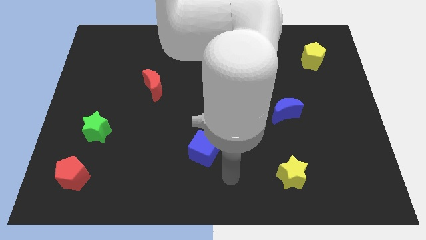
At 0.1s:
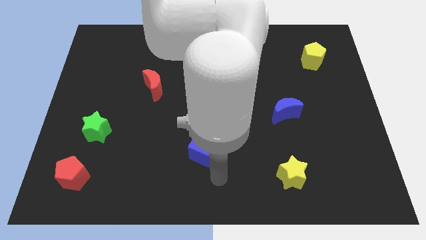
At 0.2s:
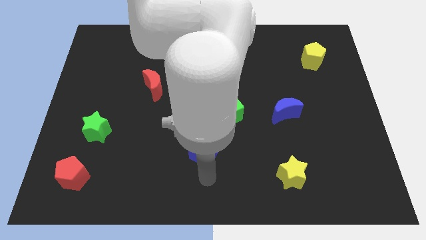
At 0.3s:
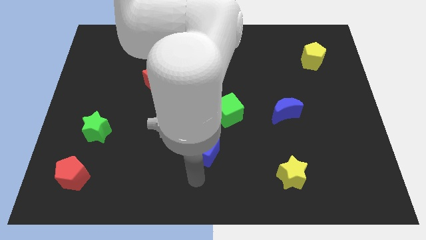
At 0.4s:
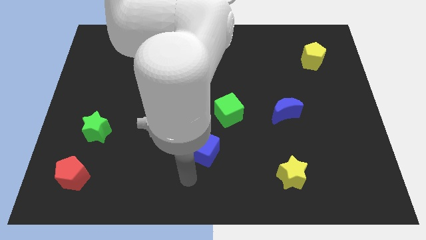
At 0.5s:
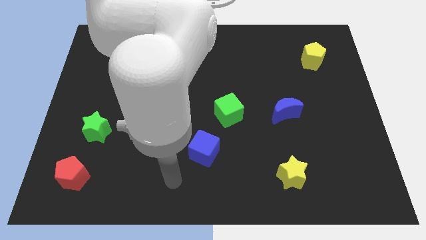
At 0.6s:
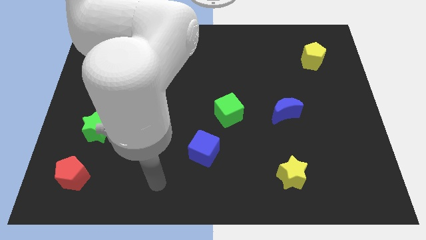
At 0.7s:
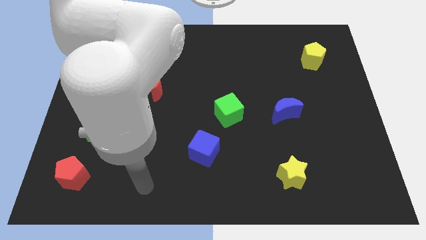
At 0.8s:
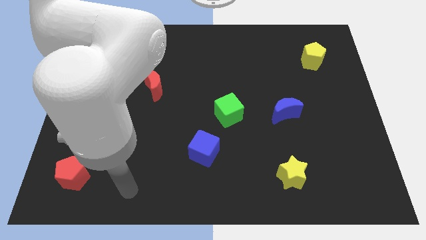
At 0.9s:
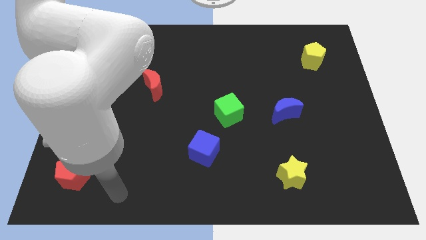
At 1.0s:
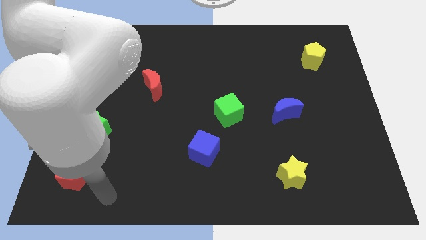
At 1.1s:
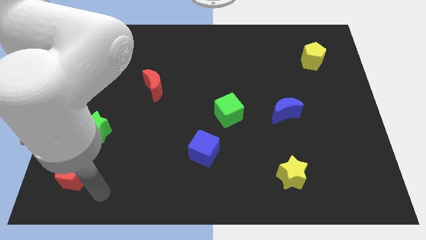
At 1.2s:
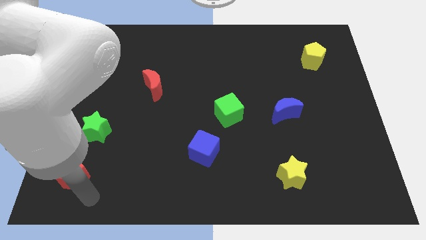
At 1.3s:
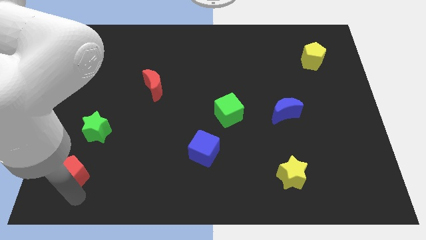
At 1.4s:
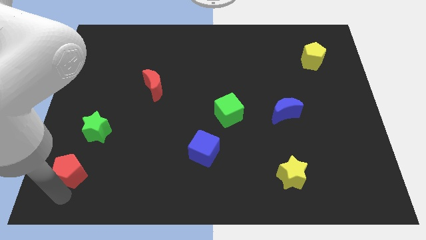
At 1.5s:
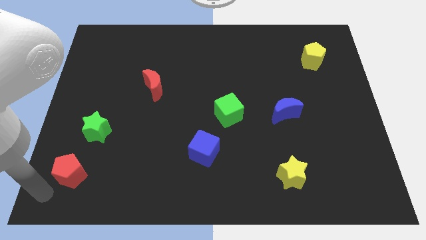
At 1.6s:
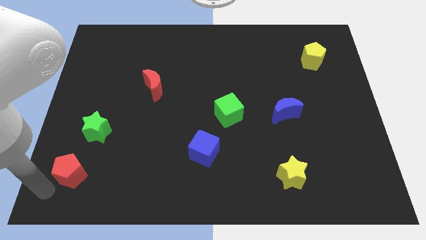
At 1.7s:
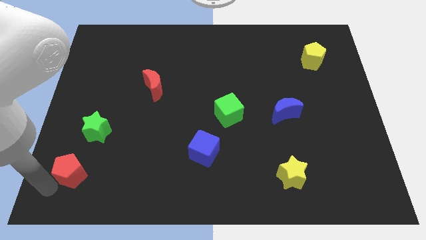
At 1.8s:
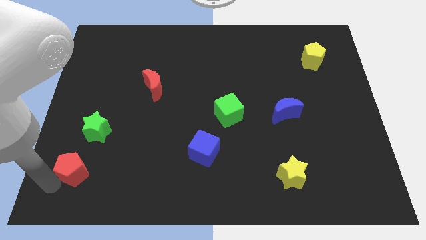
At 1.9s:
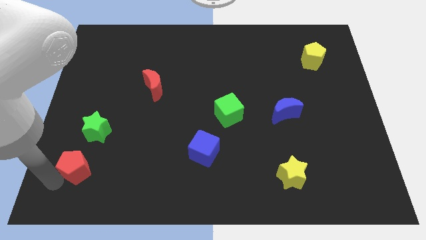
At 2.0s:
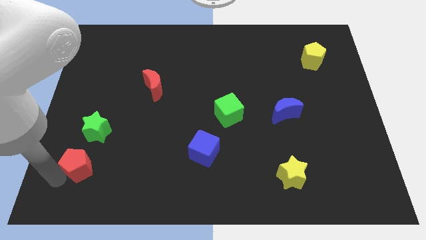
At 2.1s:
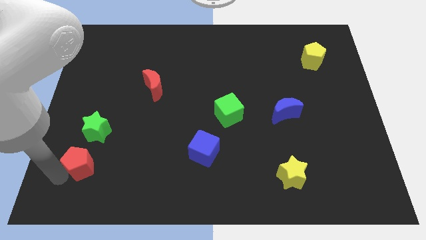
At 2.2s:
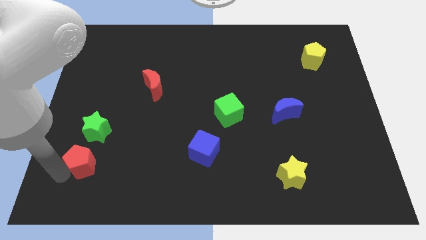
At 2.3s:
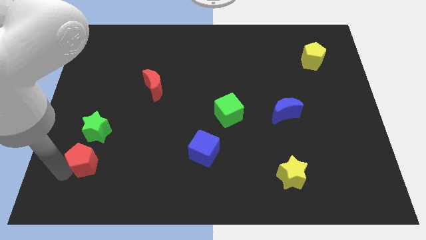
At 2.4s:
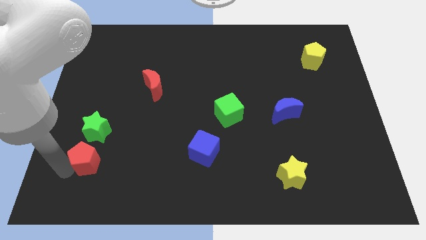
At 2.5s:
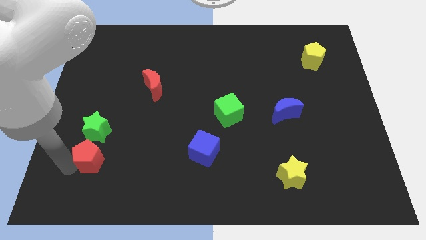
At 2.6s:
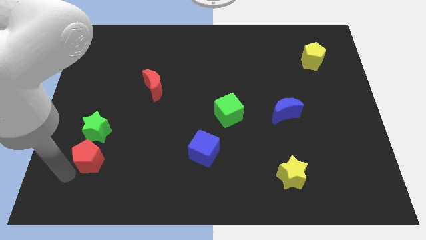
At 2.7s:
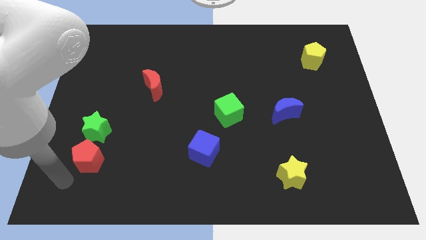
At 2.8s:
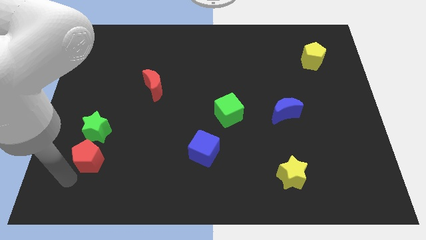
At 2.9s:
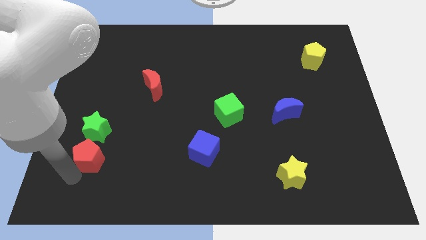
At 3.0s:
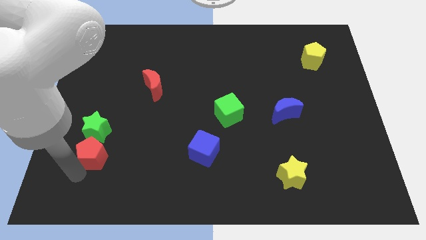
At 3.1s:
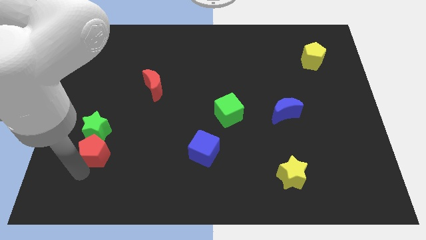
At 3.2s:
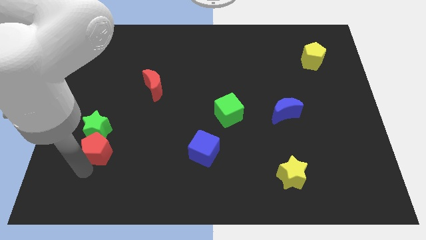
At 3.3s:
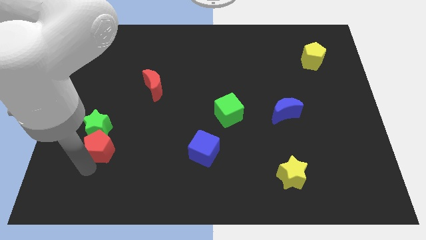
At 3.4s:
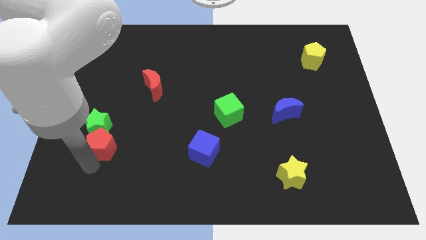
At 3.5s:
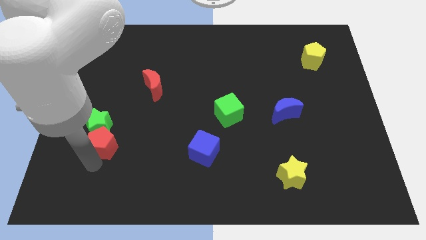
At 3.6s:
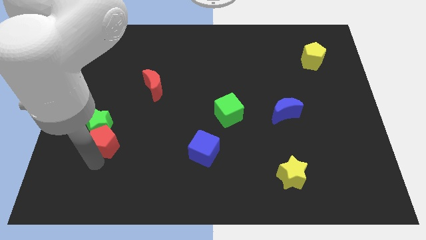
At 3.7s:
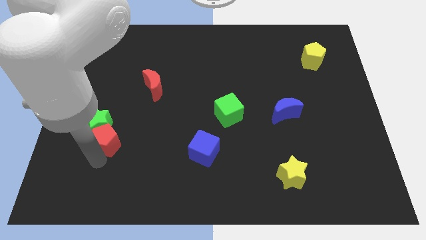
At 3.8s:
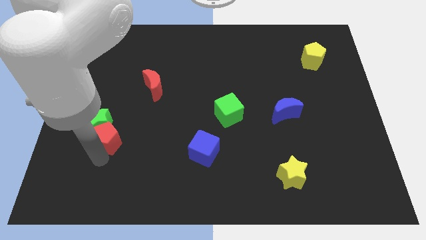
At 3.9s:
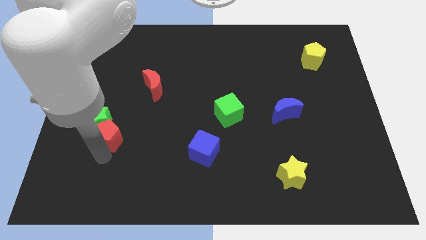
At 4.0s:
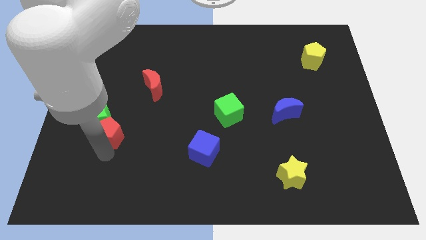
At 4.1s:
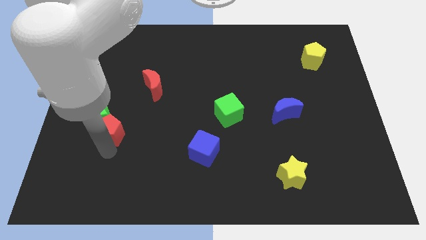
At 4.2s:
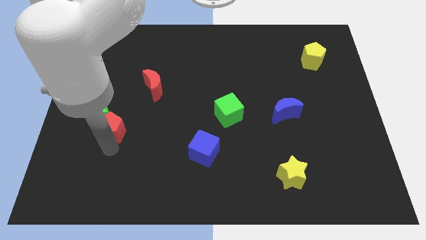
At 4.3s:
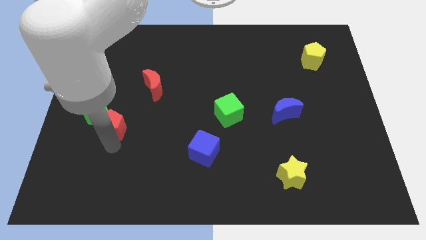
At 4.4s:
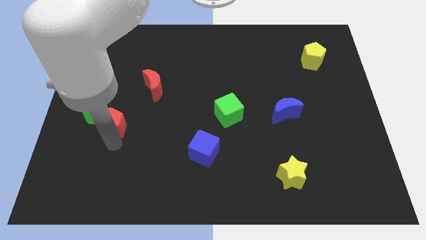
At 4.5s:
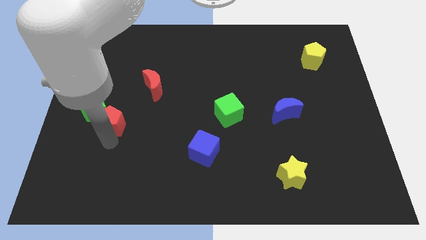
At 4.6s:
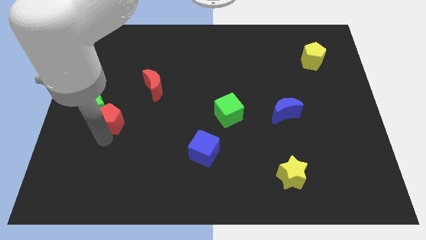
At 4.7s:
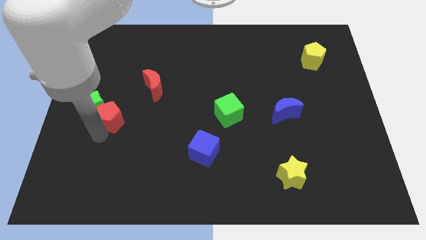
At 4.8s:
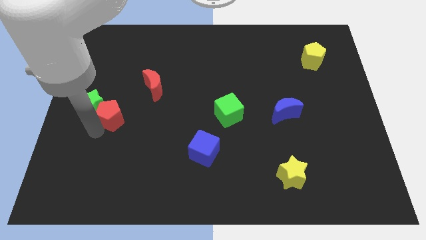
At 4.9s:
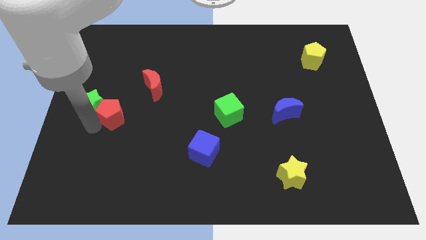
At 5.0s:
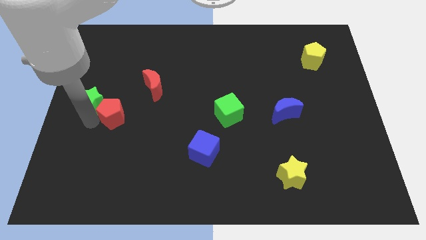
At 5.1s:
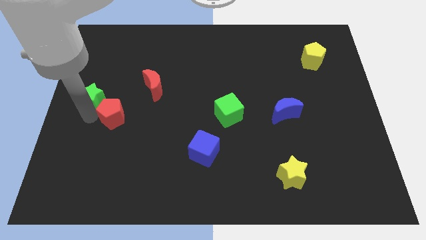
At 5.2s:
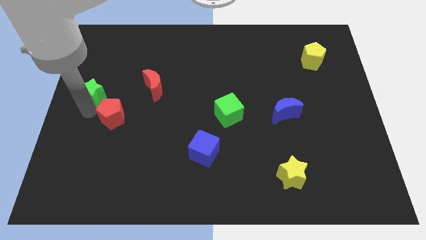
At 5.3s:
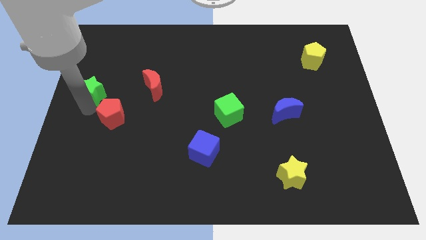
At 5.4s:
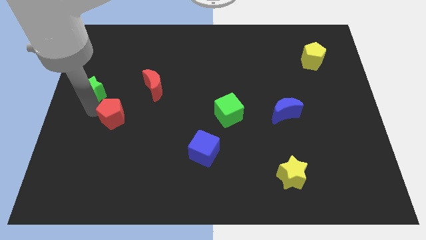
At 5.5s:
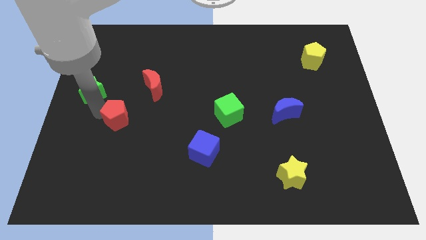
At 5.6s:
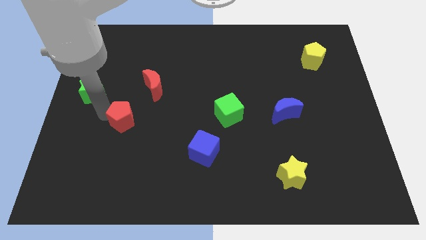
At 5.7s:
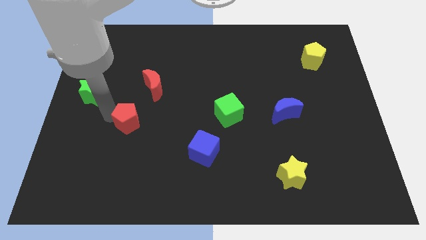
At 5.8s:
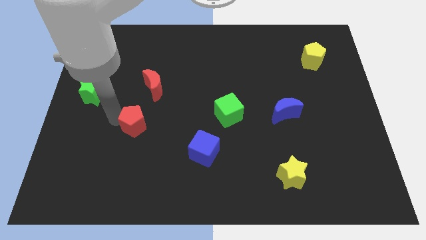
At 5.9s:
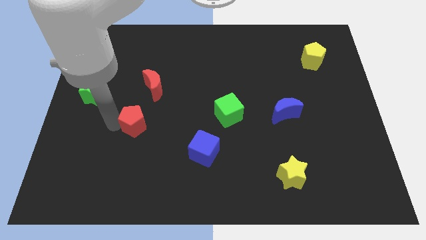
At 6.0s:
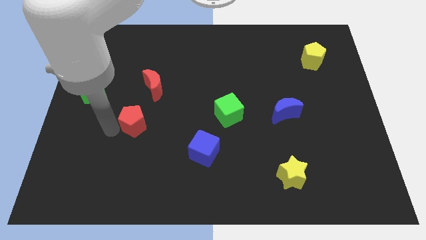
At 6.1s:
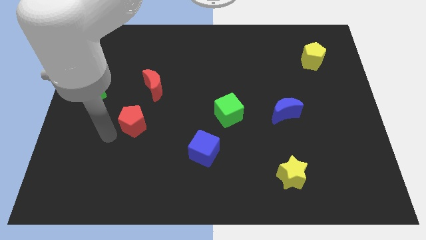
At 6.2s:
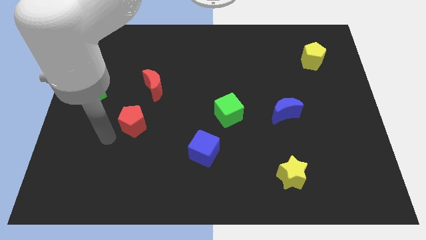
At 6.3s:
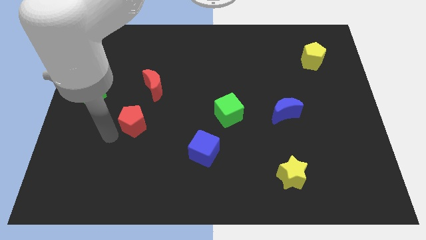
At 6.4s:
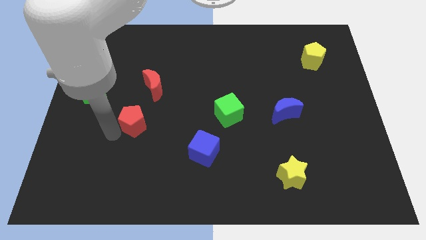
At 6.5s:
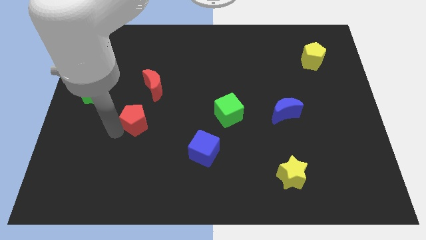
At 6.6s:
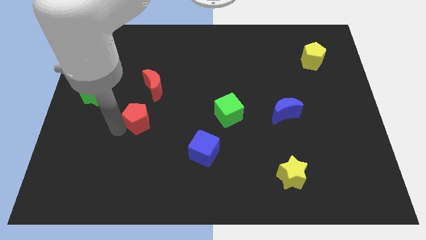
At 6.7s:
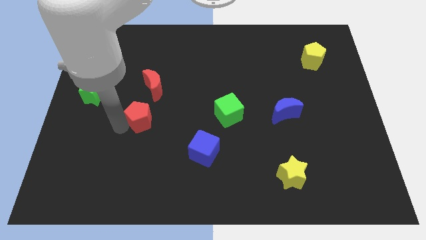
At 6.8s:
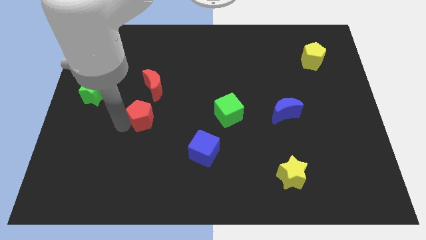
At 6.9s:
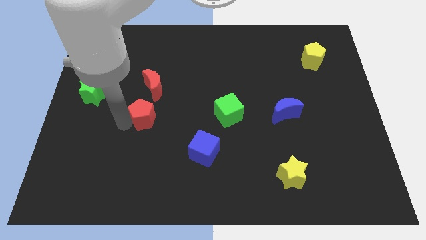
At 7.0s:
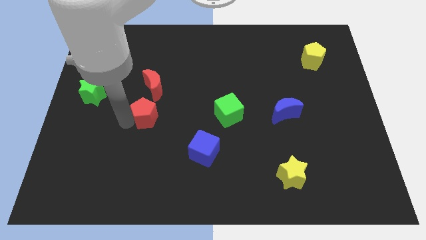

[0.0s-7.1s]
move the red pentagon upwards and to the right diagonally

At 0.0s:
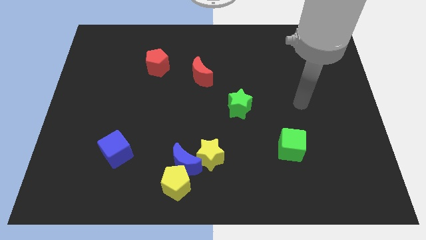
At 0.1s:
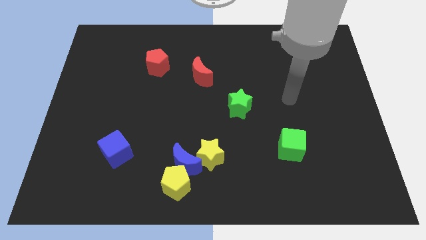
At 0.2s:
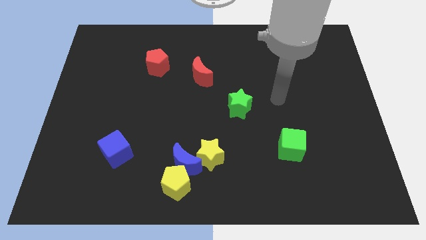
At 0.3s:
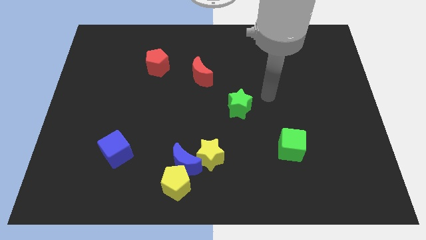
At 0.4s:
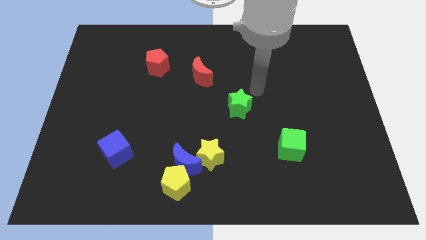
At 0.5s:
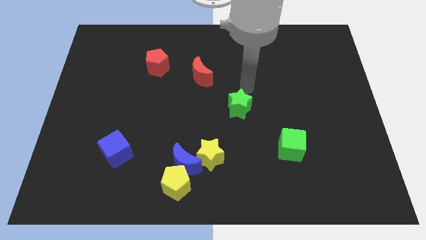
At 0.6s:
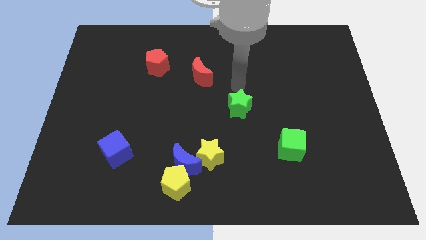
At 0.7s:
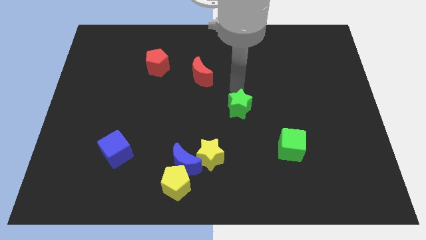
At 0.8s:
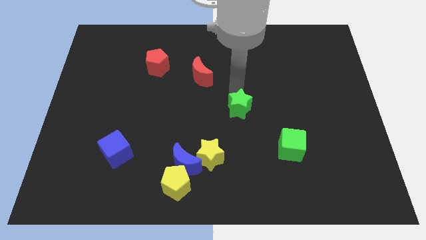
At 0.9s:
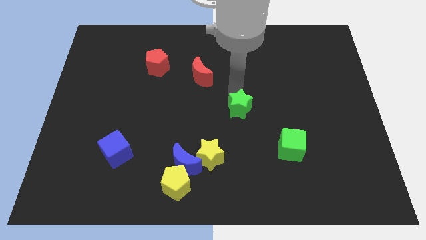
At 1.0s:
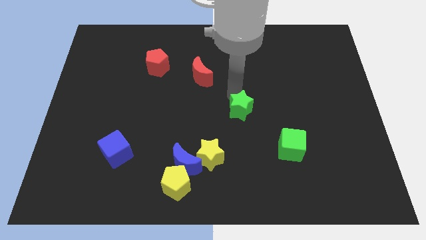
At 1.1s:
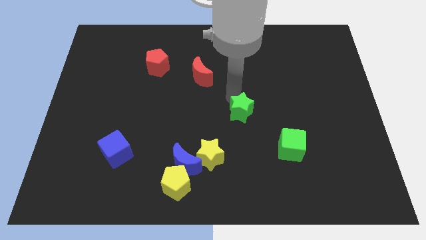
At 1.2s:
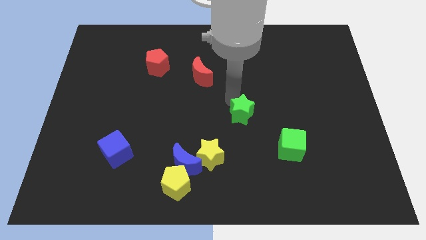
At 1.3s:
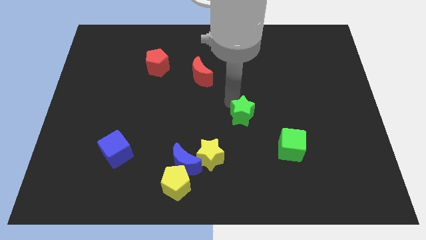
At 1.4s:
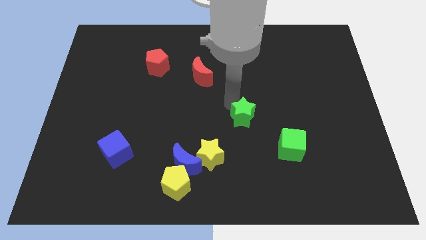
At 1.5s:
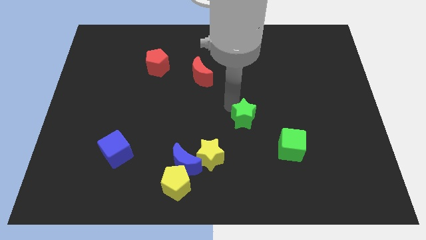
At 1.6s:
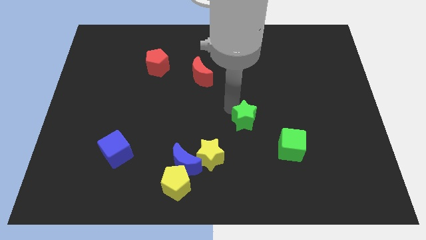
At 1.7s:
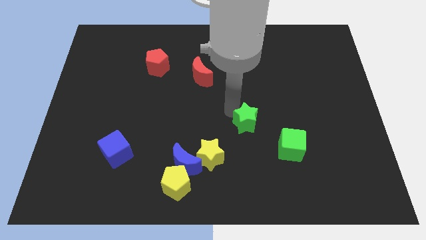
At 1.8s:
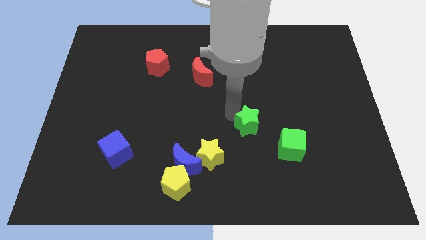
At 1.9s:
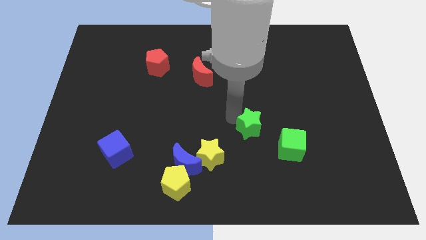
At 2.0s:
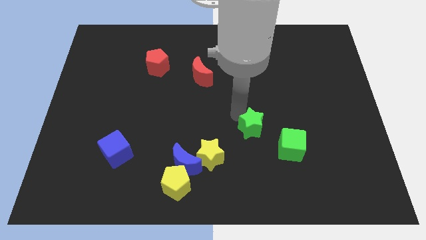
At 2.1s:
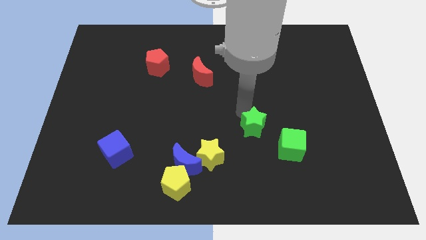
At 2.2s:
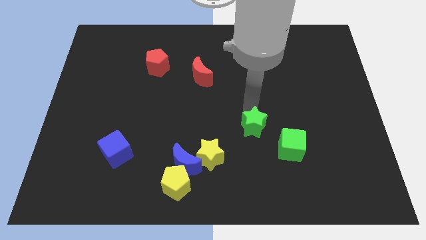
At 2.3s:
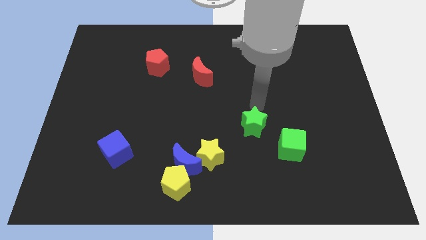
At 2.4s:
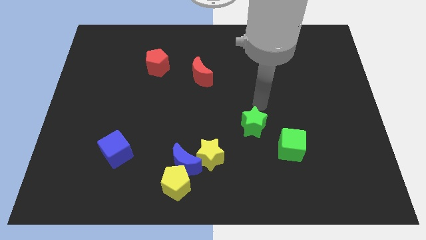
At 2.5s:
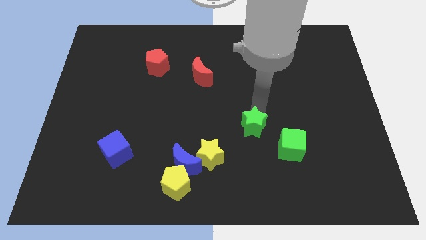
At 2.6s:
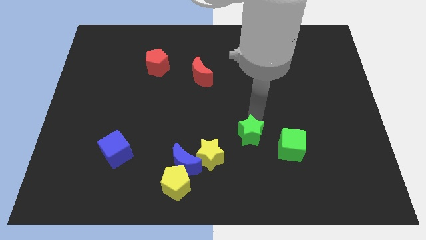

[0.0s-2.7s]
slightly slide the green star down
